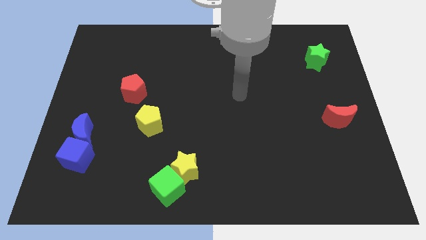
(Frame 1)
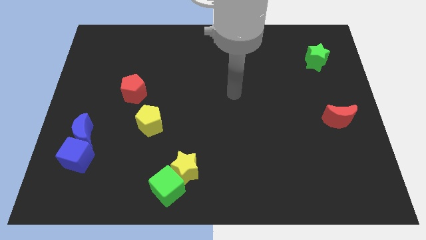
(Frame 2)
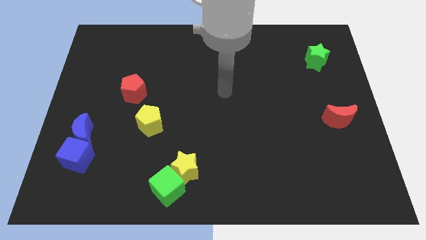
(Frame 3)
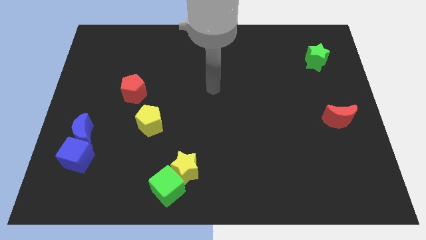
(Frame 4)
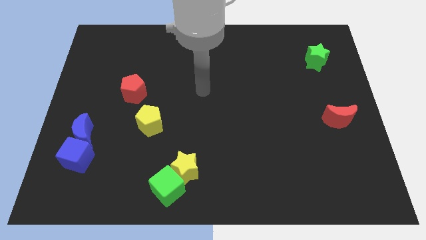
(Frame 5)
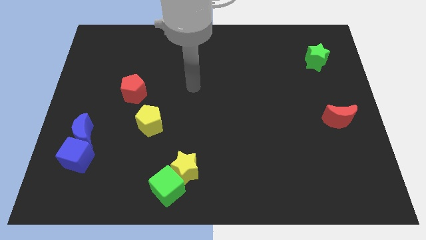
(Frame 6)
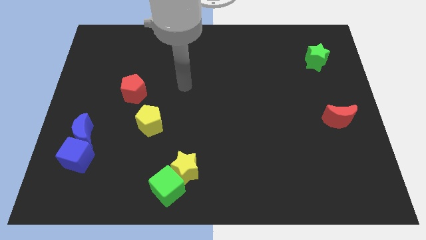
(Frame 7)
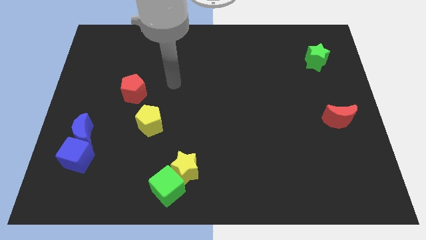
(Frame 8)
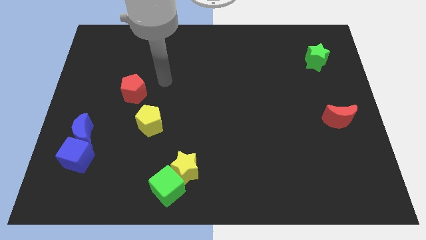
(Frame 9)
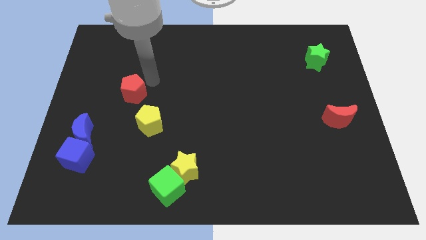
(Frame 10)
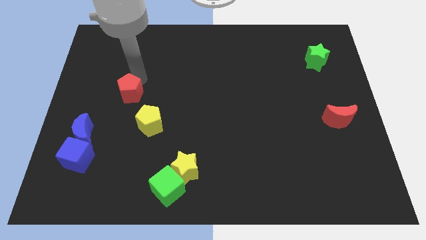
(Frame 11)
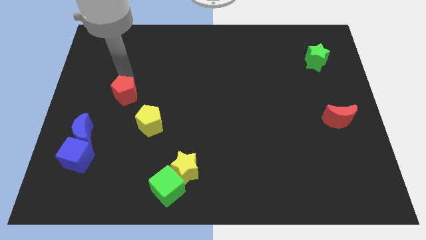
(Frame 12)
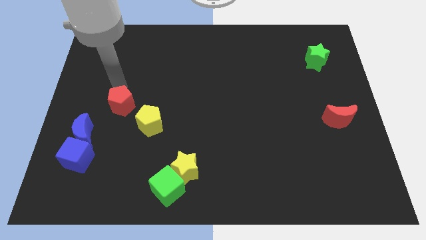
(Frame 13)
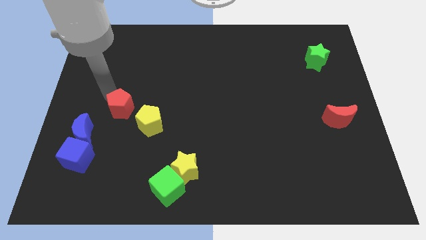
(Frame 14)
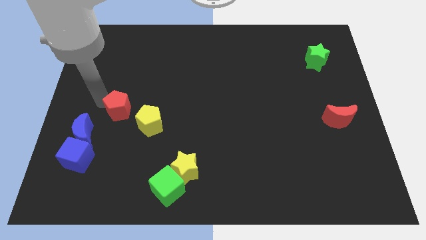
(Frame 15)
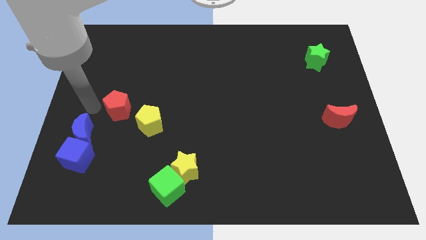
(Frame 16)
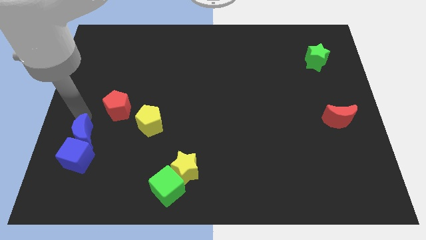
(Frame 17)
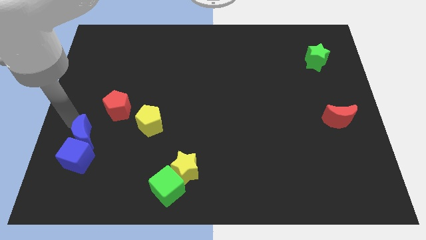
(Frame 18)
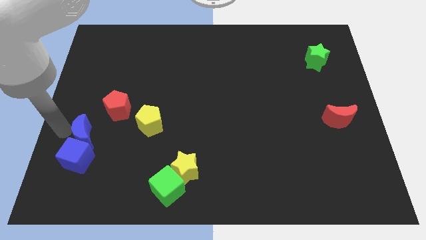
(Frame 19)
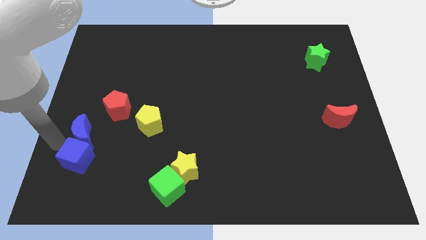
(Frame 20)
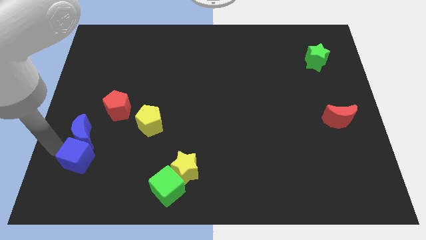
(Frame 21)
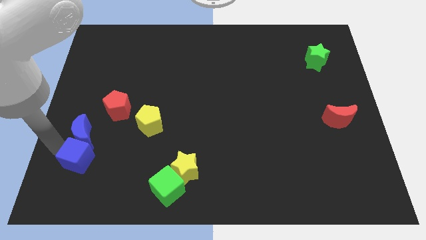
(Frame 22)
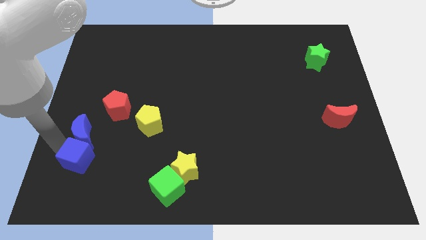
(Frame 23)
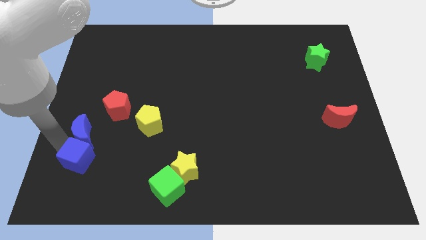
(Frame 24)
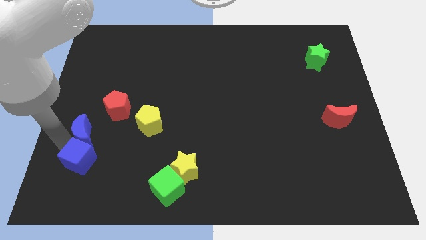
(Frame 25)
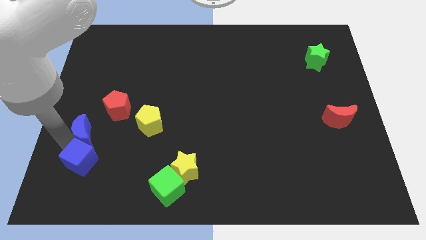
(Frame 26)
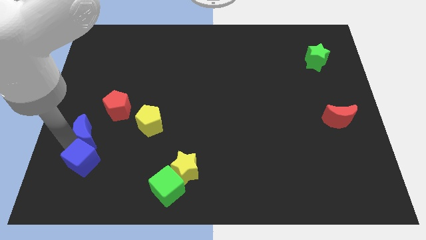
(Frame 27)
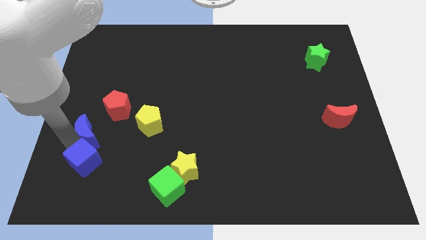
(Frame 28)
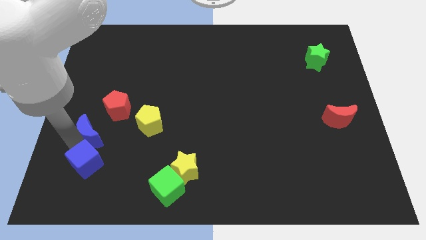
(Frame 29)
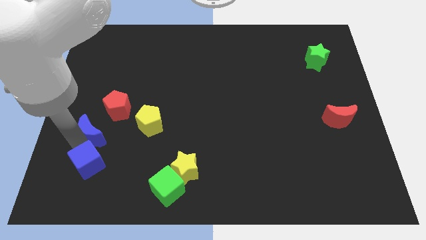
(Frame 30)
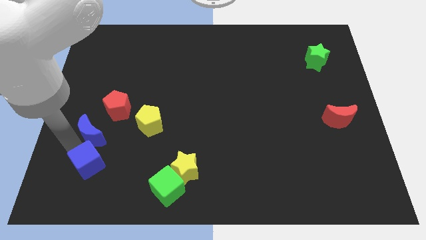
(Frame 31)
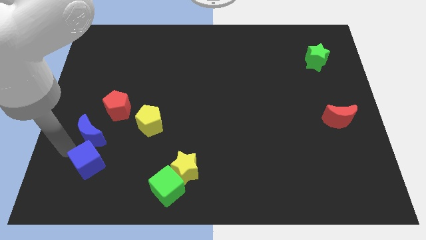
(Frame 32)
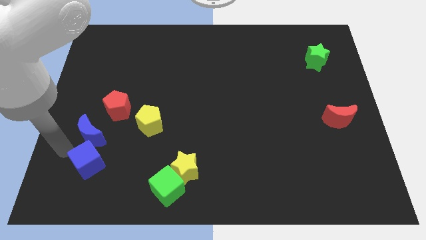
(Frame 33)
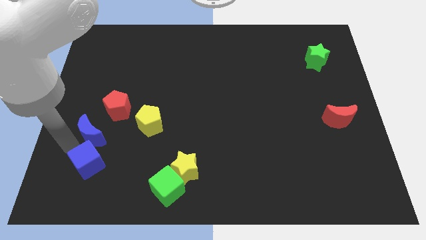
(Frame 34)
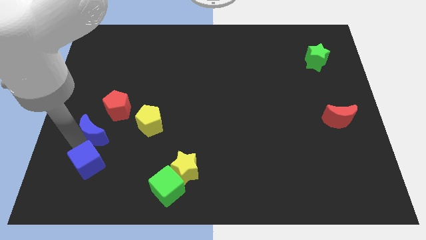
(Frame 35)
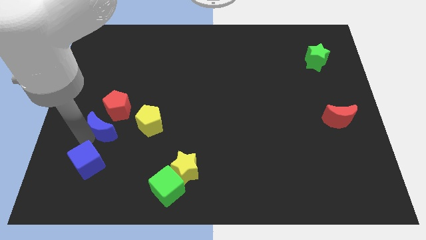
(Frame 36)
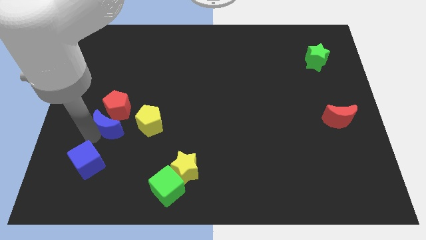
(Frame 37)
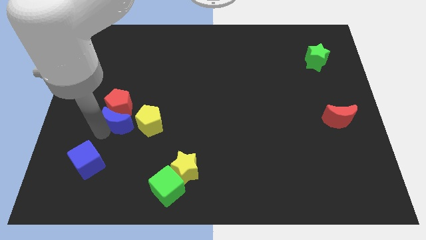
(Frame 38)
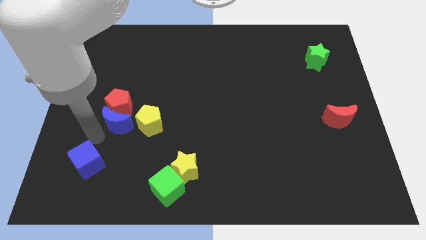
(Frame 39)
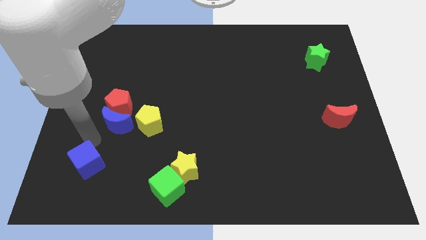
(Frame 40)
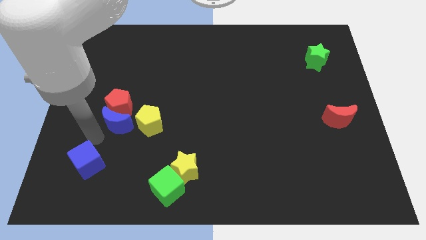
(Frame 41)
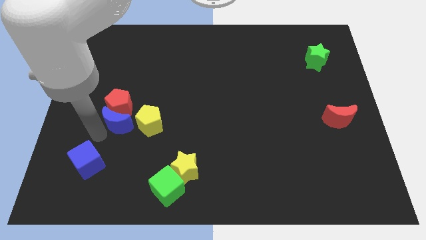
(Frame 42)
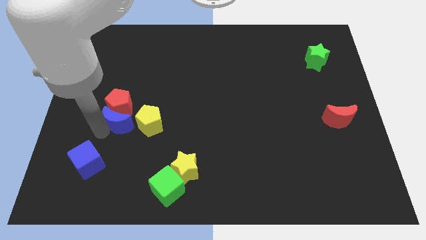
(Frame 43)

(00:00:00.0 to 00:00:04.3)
move the blue moon upwards and to the right diagonally a bit

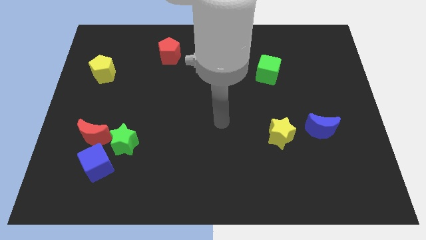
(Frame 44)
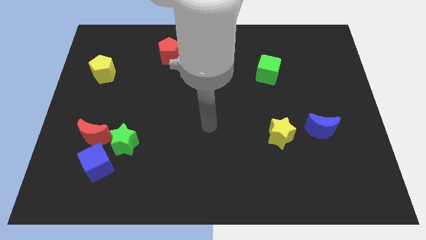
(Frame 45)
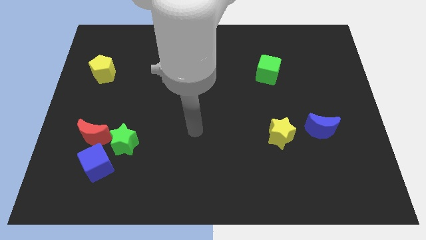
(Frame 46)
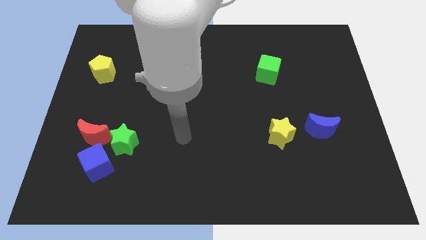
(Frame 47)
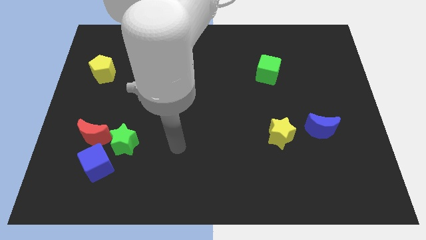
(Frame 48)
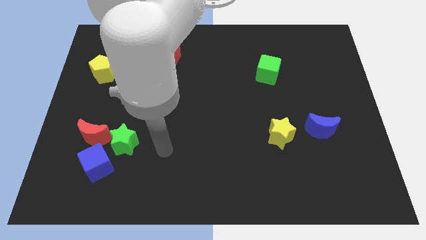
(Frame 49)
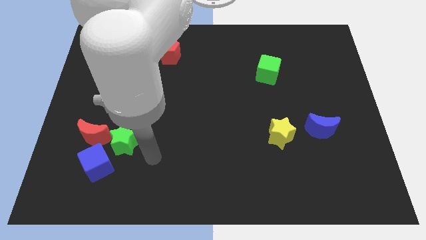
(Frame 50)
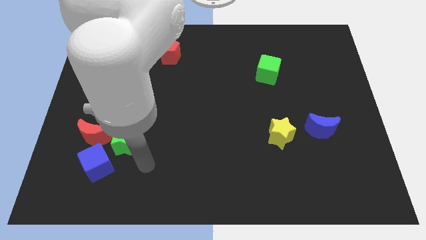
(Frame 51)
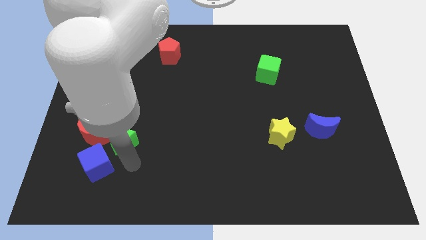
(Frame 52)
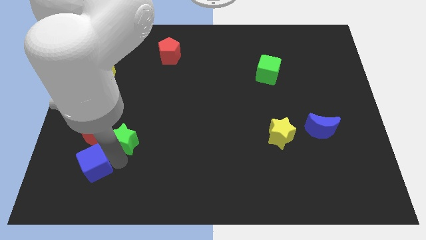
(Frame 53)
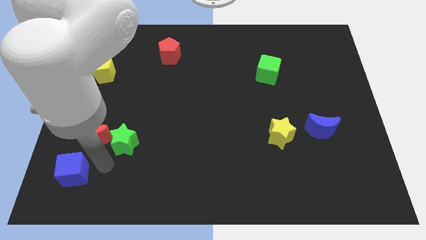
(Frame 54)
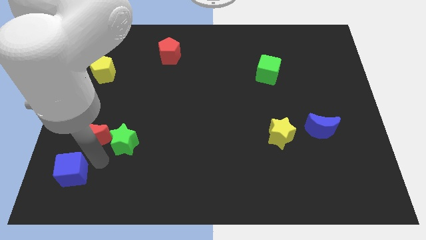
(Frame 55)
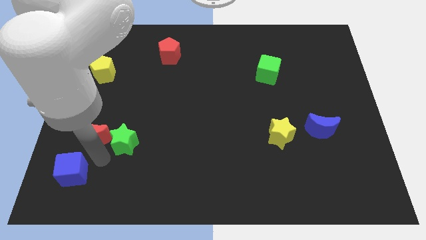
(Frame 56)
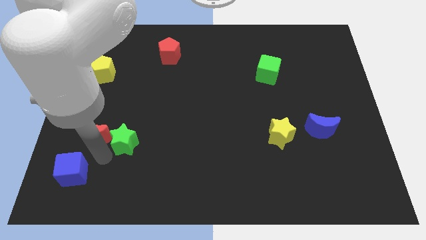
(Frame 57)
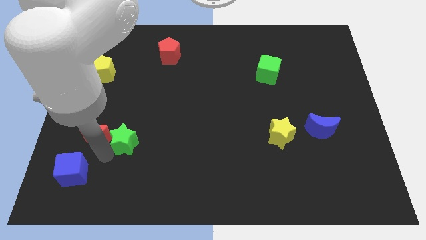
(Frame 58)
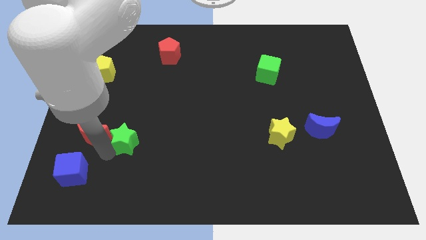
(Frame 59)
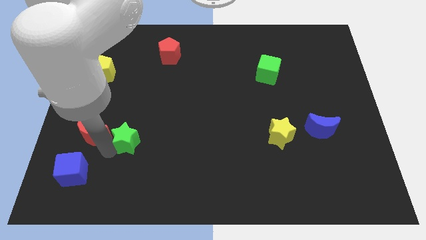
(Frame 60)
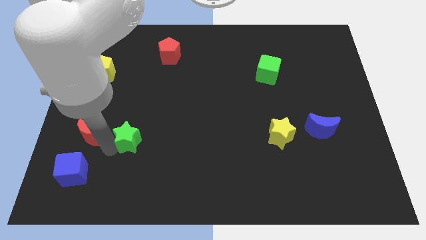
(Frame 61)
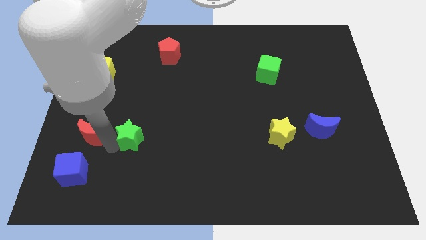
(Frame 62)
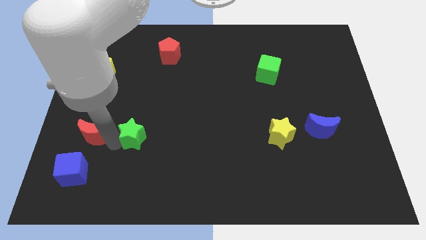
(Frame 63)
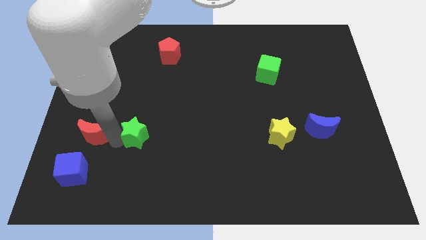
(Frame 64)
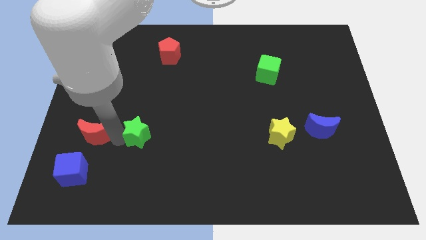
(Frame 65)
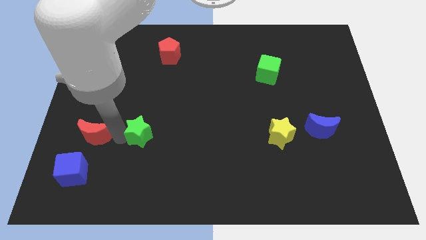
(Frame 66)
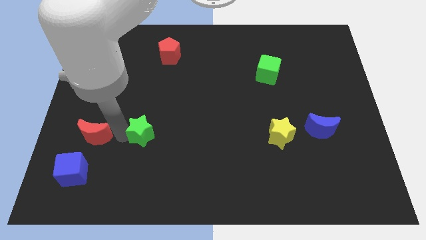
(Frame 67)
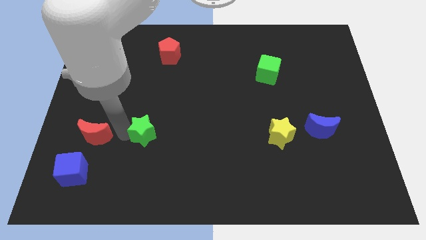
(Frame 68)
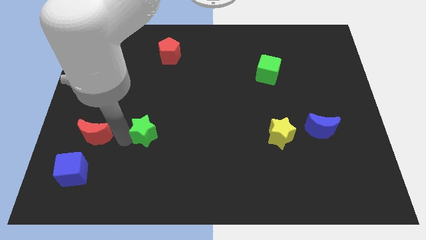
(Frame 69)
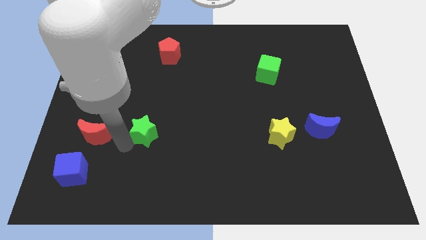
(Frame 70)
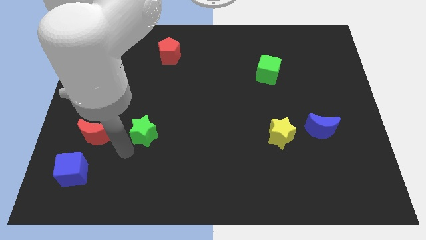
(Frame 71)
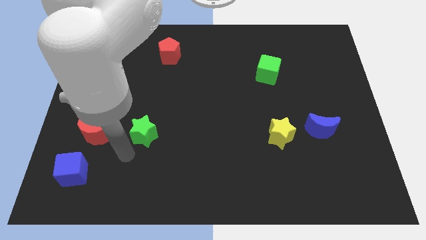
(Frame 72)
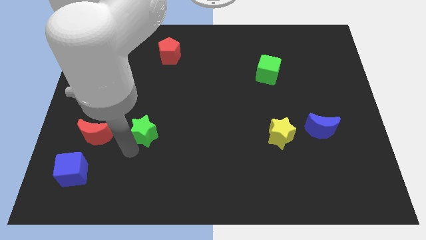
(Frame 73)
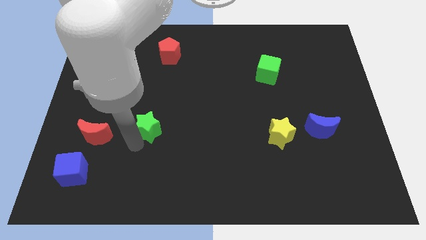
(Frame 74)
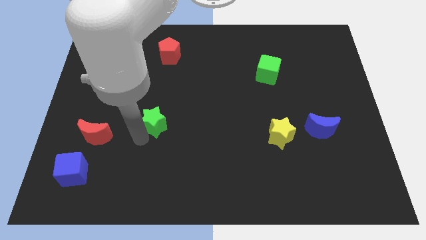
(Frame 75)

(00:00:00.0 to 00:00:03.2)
move the green star up and to the right a little bit

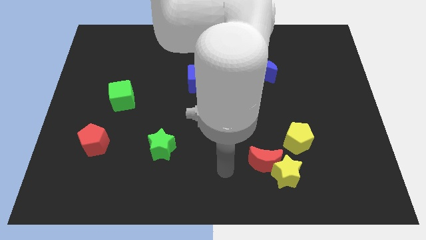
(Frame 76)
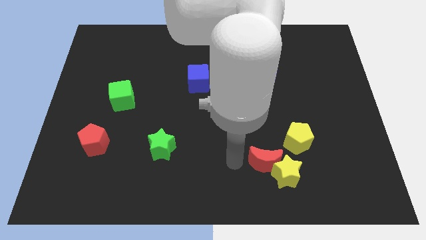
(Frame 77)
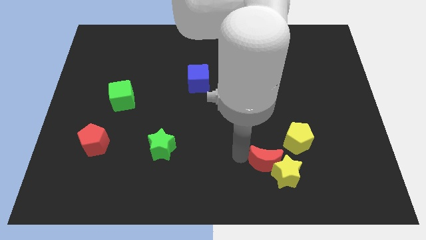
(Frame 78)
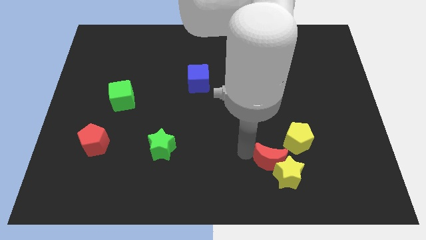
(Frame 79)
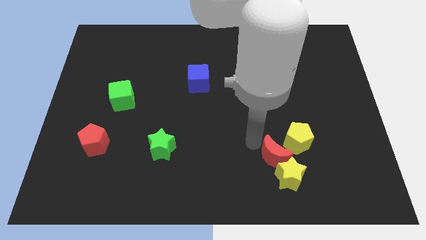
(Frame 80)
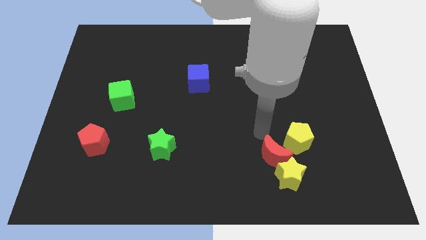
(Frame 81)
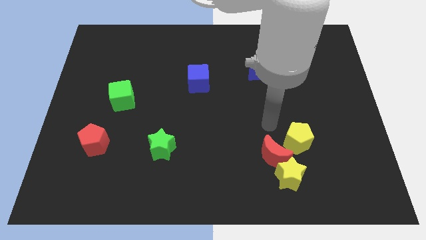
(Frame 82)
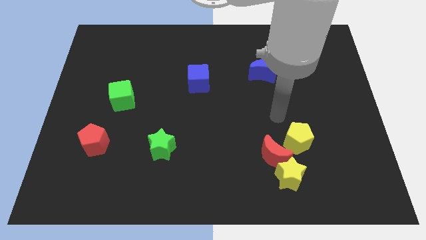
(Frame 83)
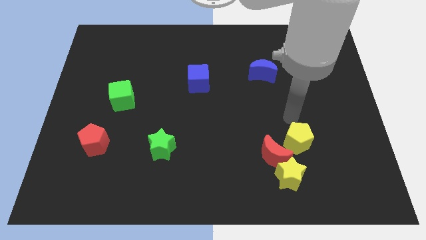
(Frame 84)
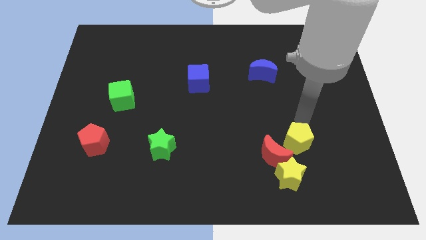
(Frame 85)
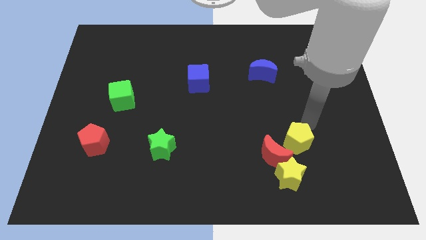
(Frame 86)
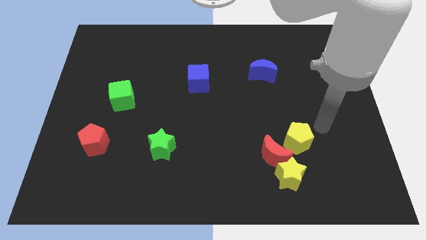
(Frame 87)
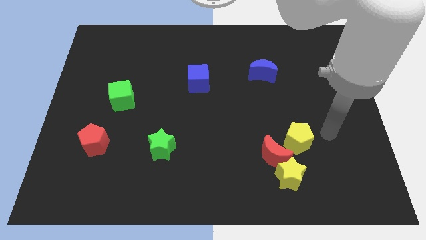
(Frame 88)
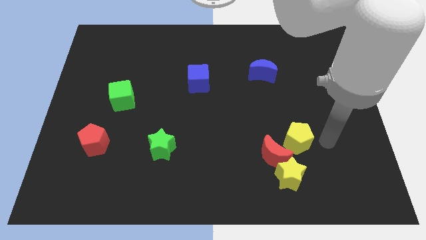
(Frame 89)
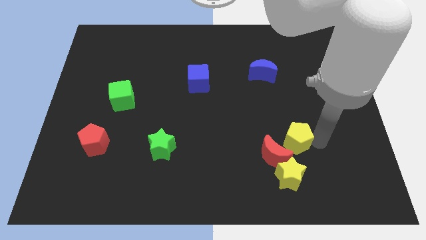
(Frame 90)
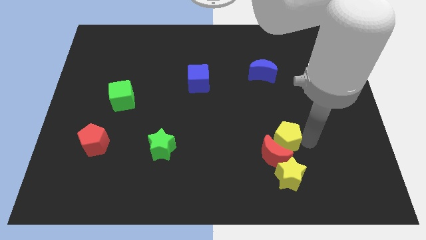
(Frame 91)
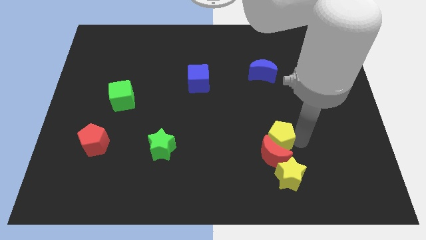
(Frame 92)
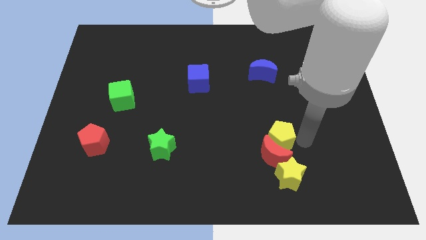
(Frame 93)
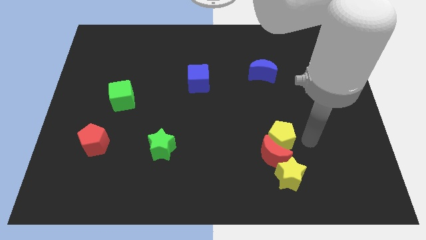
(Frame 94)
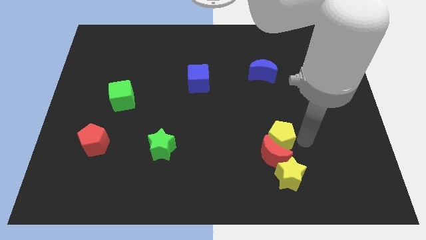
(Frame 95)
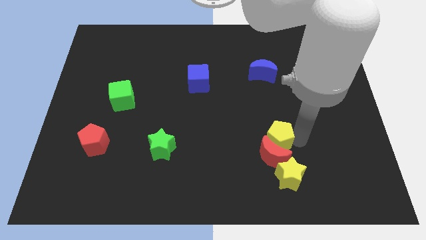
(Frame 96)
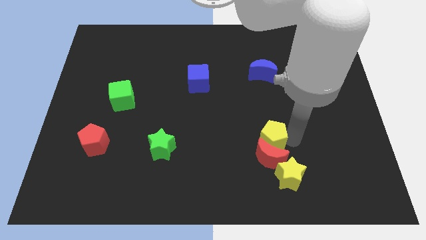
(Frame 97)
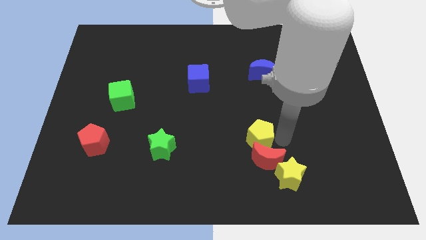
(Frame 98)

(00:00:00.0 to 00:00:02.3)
slide the yellow pentagon left a bit
